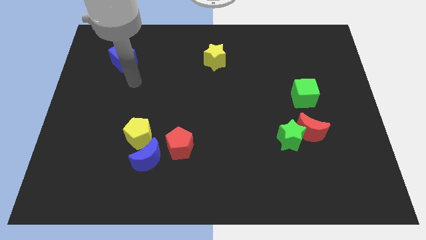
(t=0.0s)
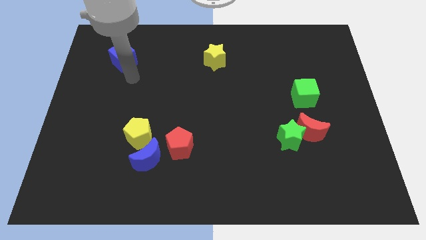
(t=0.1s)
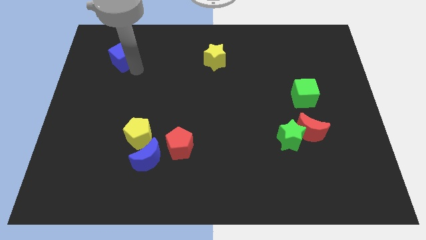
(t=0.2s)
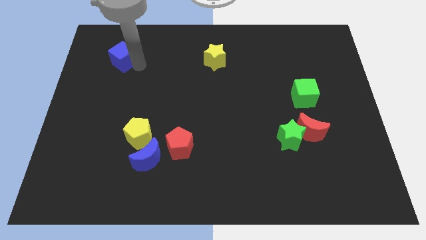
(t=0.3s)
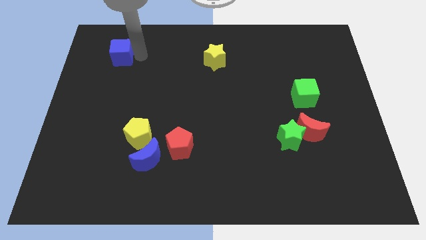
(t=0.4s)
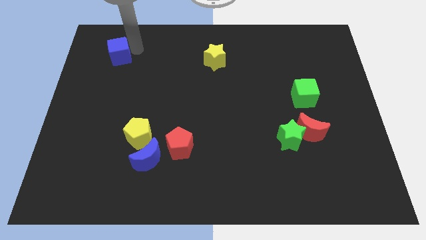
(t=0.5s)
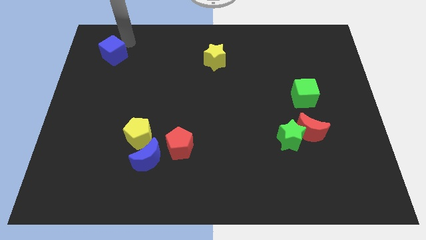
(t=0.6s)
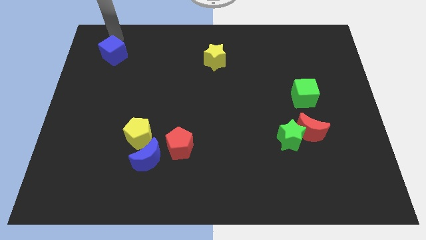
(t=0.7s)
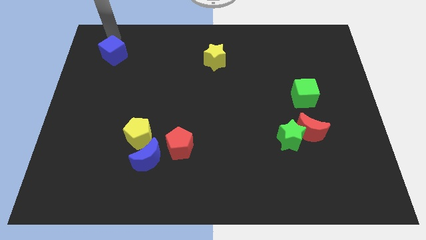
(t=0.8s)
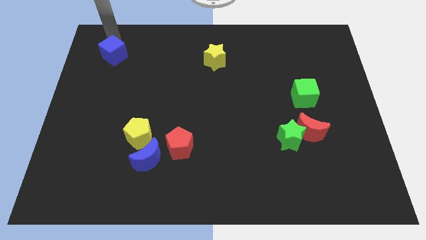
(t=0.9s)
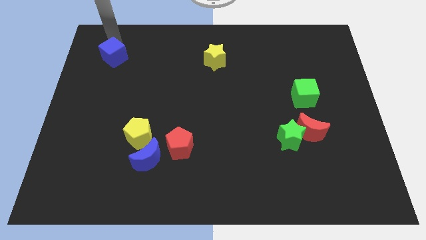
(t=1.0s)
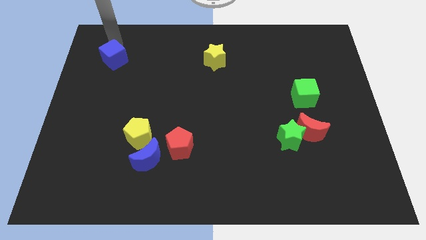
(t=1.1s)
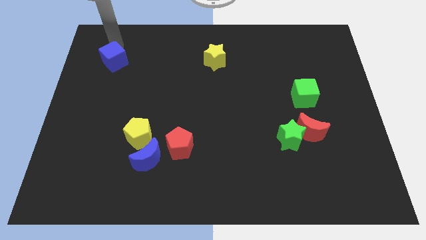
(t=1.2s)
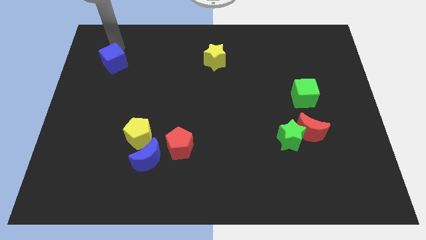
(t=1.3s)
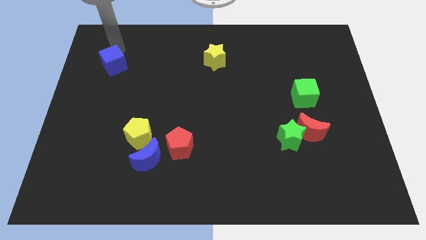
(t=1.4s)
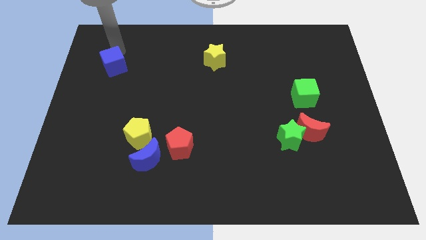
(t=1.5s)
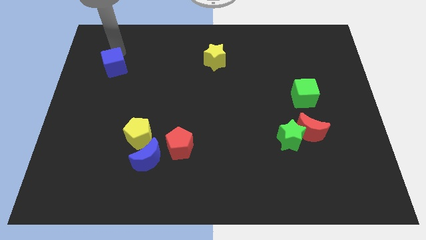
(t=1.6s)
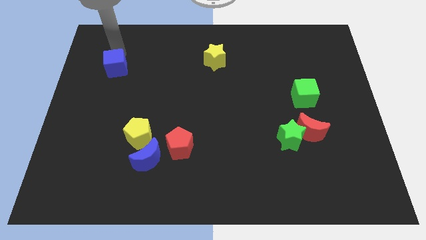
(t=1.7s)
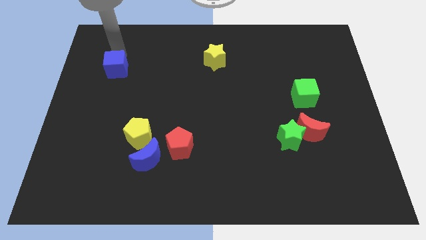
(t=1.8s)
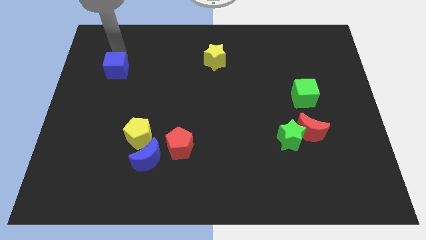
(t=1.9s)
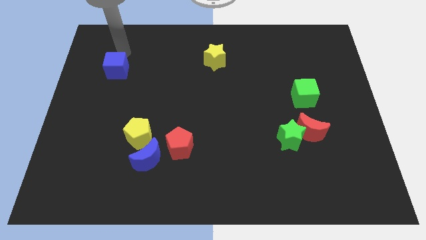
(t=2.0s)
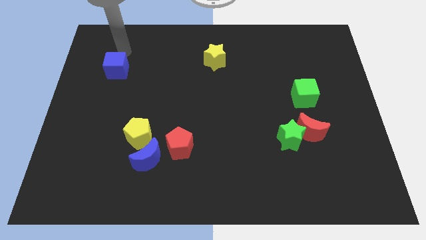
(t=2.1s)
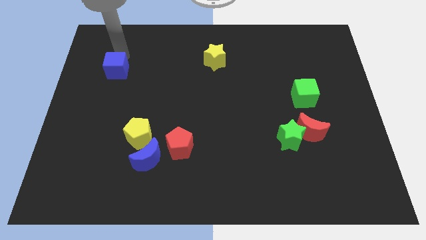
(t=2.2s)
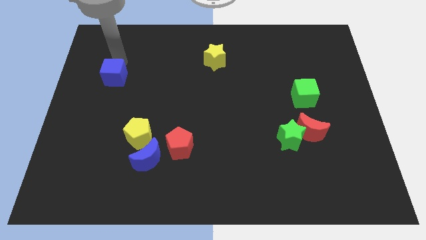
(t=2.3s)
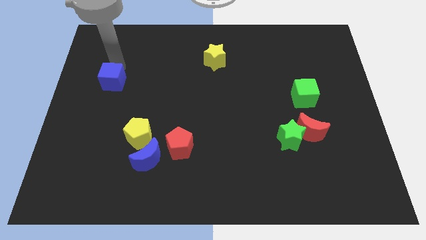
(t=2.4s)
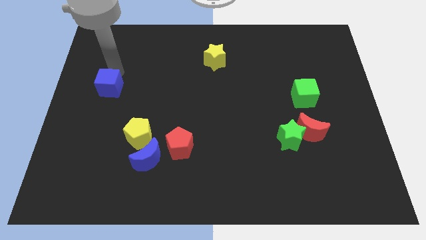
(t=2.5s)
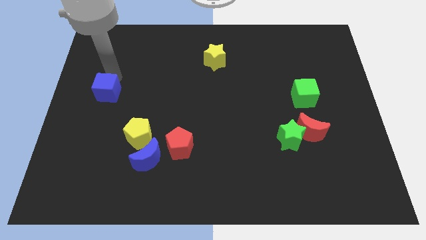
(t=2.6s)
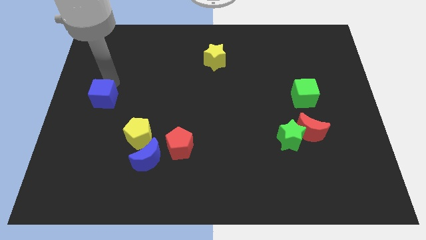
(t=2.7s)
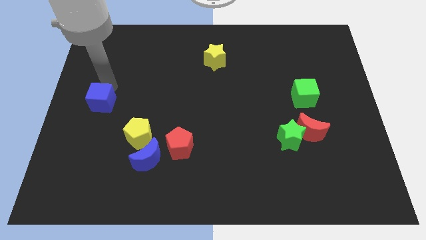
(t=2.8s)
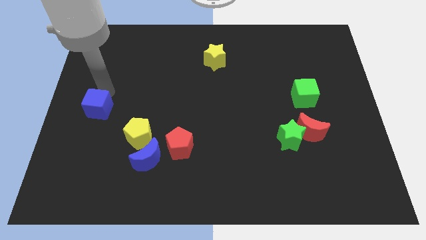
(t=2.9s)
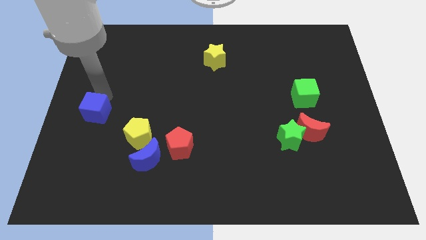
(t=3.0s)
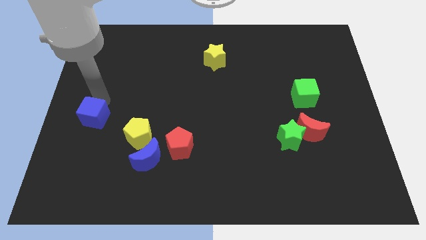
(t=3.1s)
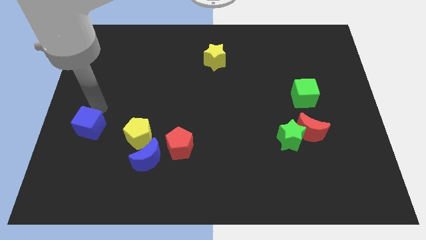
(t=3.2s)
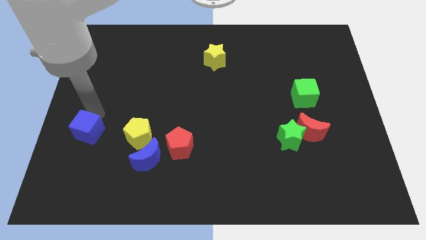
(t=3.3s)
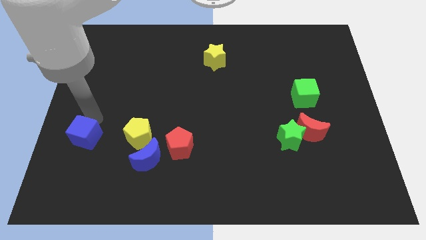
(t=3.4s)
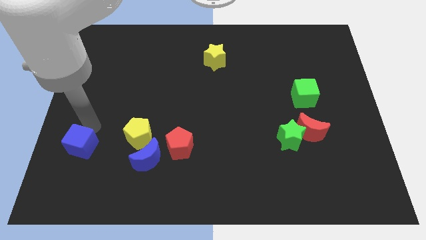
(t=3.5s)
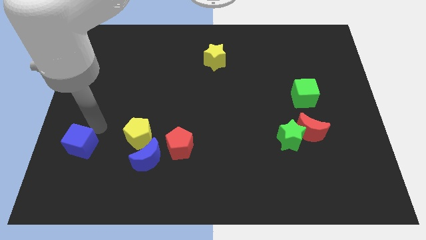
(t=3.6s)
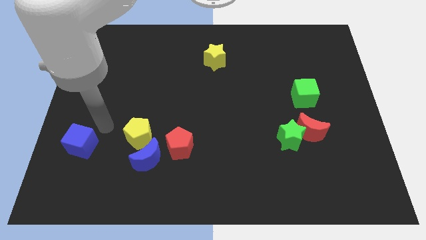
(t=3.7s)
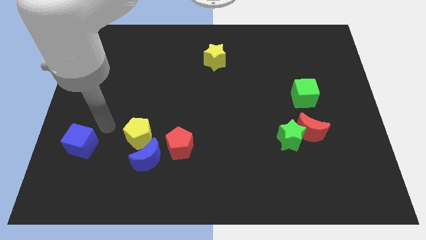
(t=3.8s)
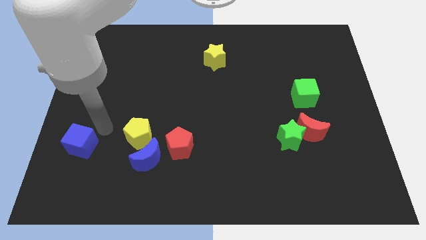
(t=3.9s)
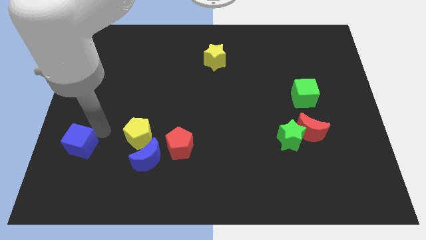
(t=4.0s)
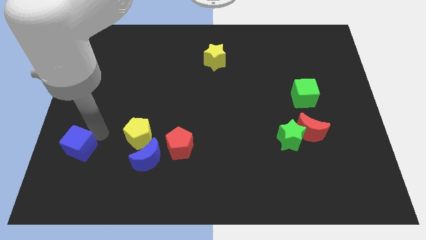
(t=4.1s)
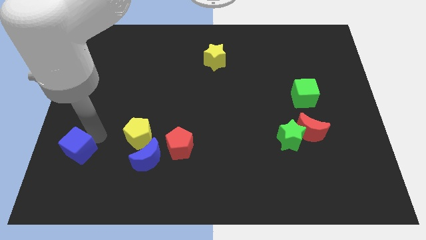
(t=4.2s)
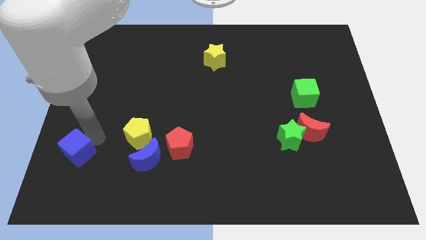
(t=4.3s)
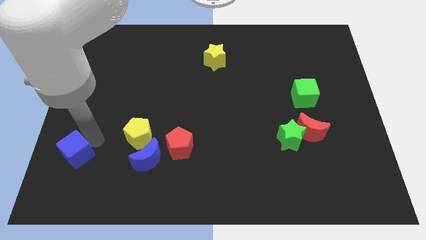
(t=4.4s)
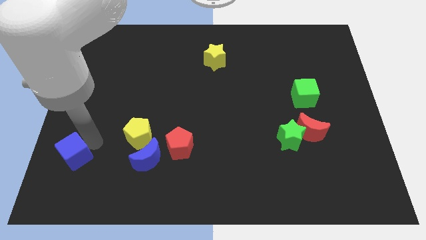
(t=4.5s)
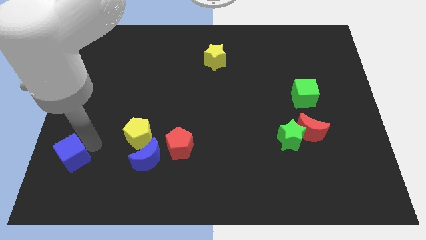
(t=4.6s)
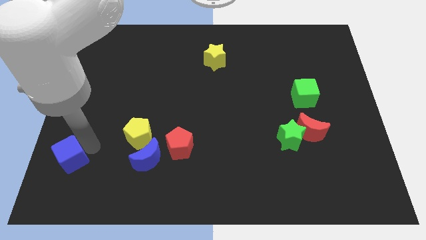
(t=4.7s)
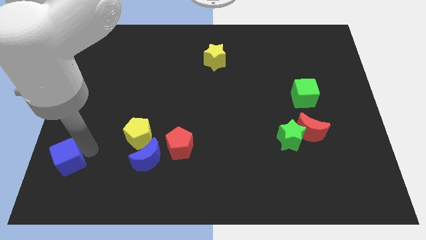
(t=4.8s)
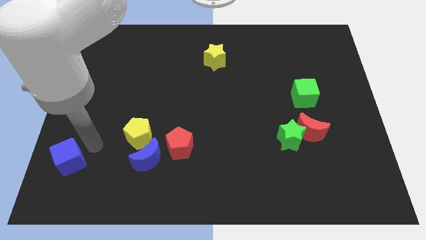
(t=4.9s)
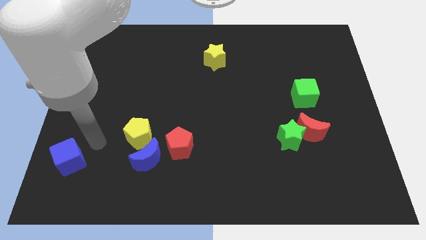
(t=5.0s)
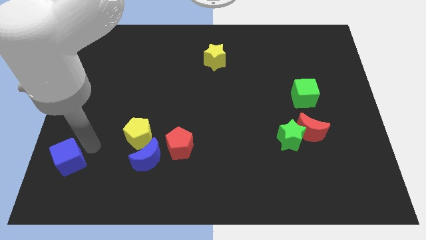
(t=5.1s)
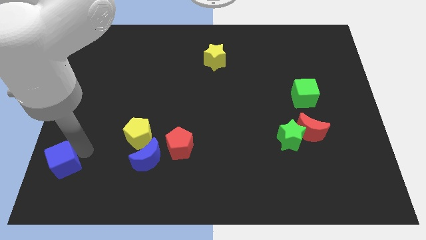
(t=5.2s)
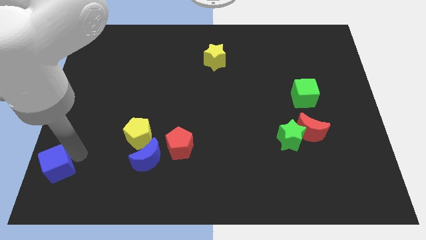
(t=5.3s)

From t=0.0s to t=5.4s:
put the blue cube to the lower left corner

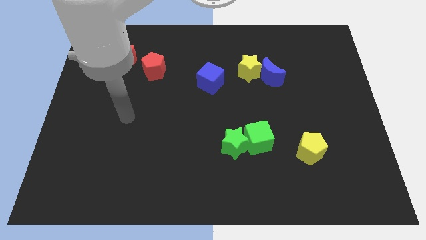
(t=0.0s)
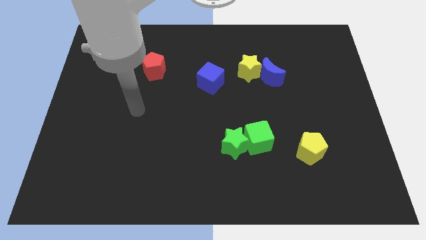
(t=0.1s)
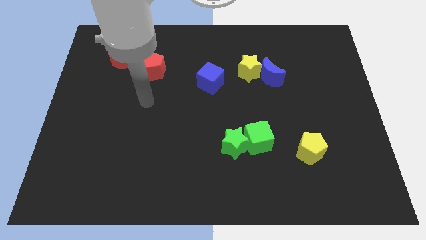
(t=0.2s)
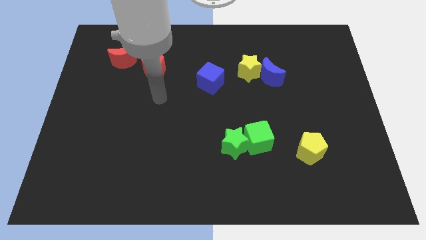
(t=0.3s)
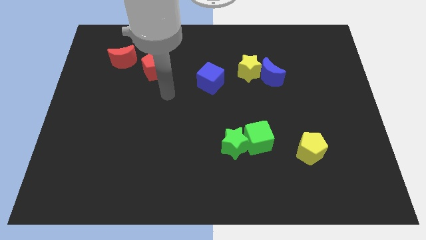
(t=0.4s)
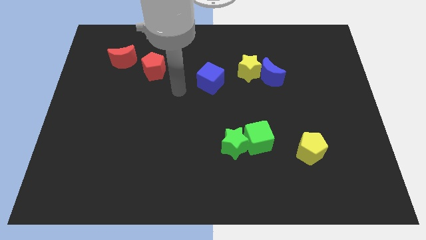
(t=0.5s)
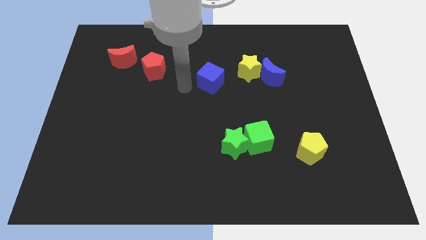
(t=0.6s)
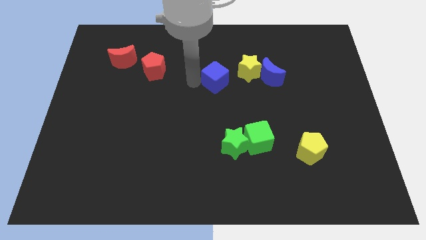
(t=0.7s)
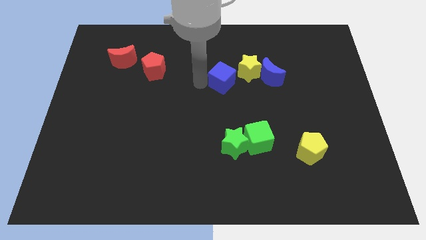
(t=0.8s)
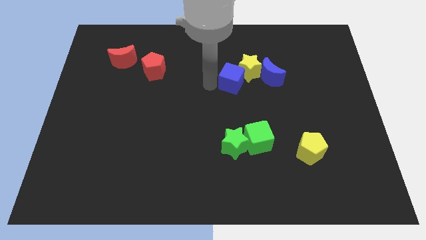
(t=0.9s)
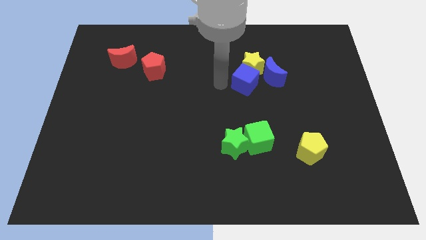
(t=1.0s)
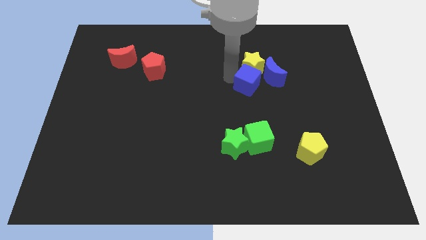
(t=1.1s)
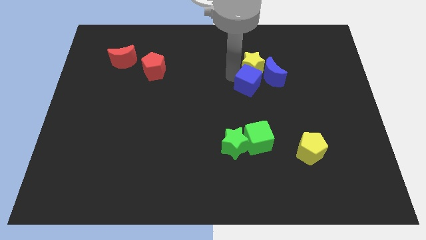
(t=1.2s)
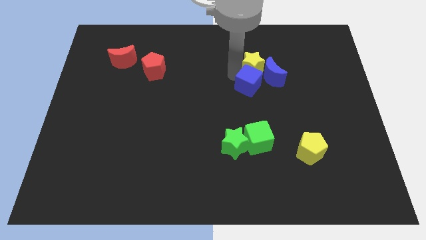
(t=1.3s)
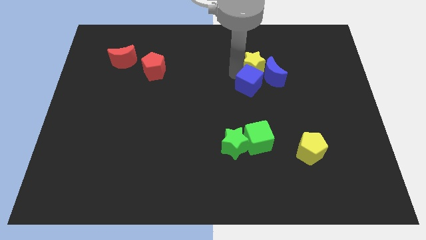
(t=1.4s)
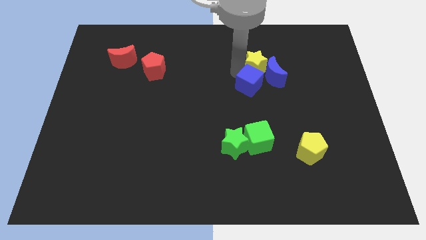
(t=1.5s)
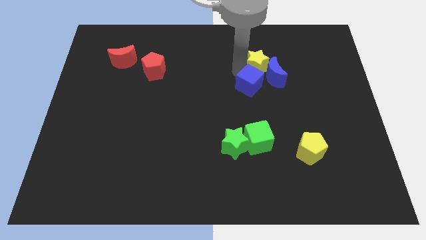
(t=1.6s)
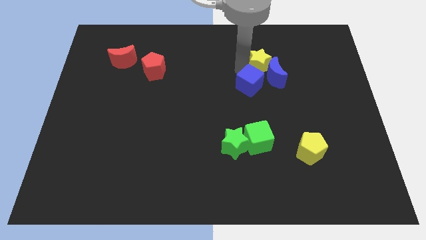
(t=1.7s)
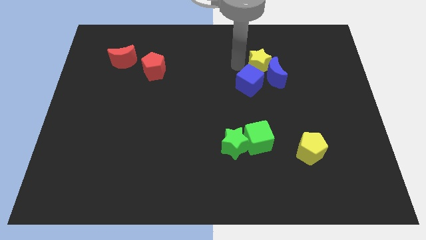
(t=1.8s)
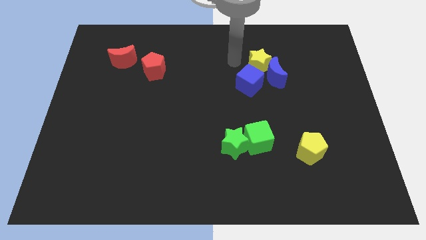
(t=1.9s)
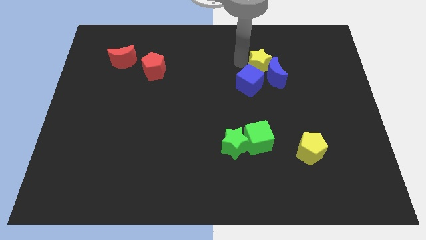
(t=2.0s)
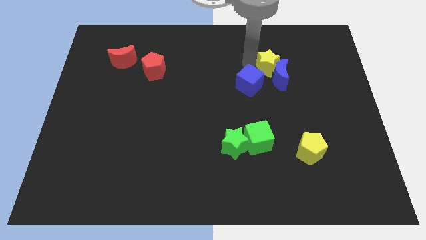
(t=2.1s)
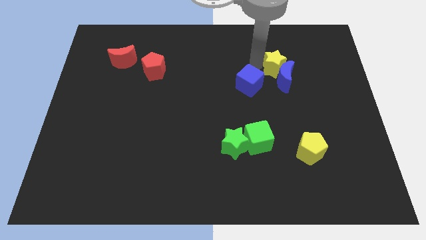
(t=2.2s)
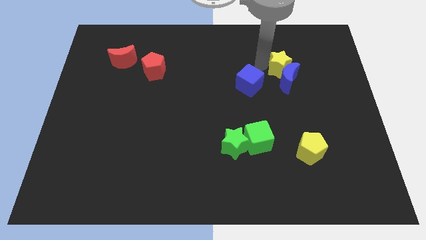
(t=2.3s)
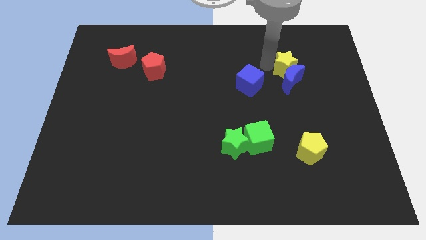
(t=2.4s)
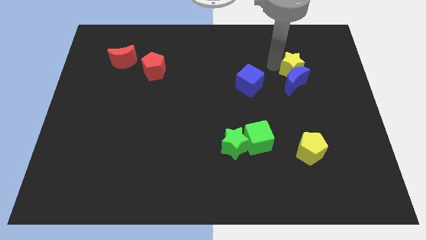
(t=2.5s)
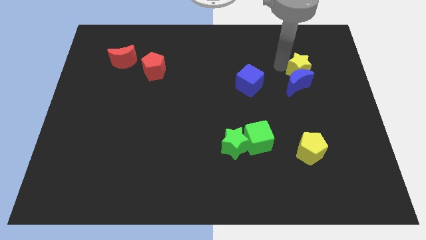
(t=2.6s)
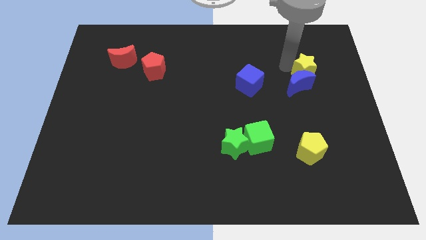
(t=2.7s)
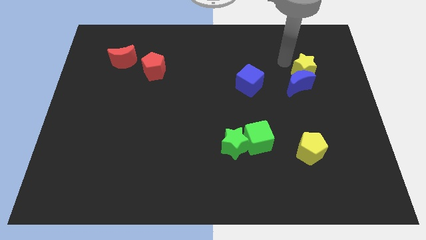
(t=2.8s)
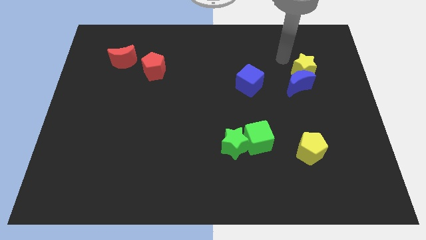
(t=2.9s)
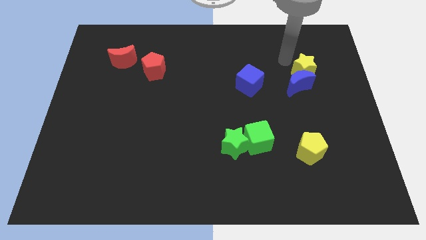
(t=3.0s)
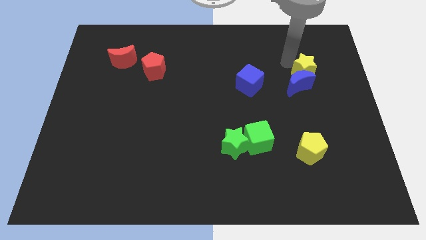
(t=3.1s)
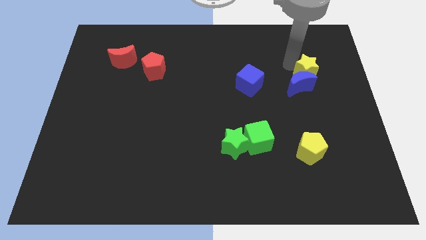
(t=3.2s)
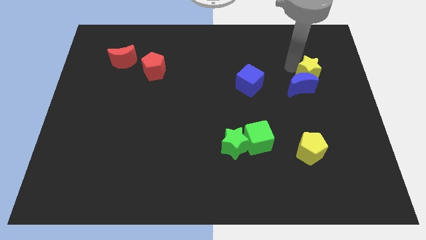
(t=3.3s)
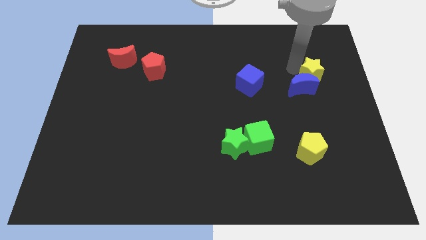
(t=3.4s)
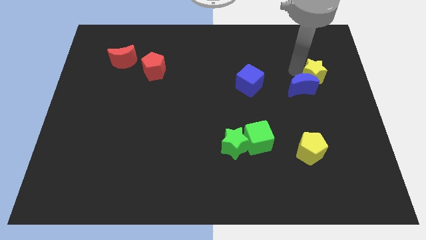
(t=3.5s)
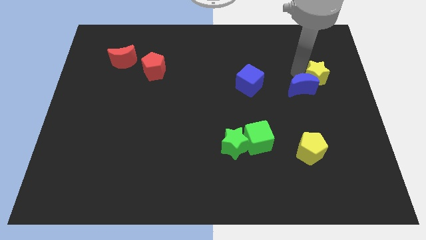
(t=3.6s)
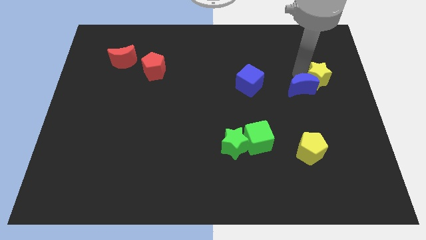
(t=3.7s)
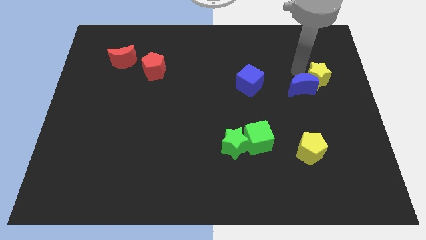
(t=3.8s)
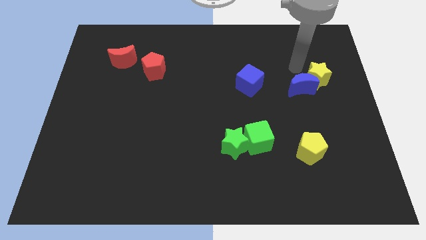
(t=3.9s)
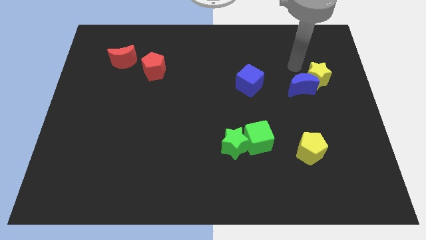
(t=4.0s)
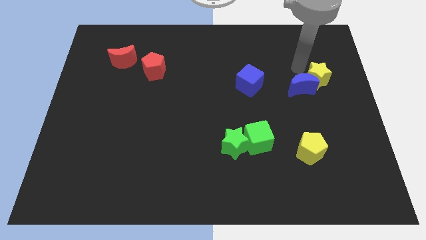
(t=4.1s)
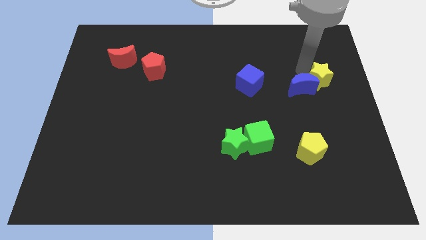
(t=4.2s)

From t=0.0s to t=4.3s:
move the yellow star to the right side
